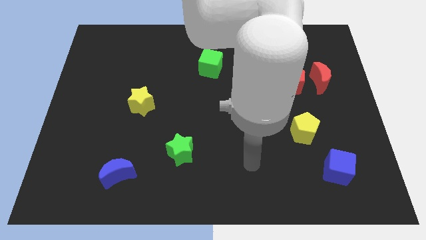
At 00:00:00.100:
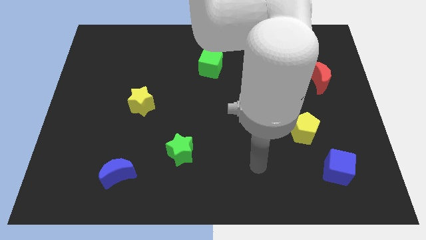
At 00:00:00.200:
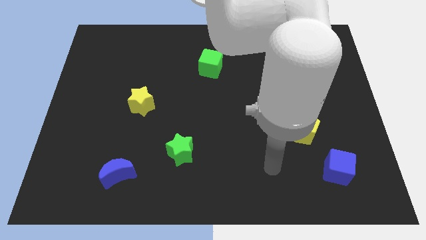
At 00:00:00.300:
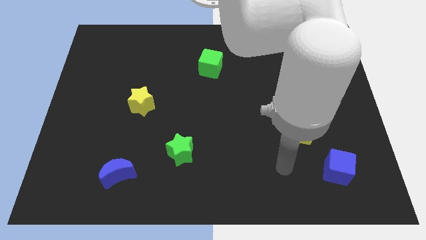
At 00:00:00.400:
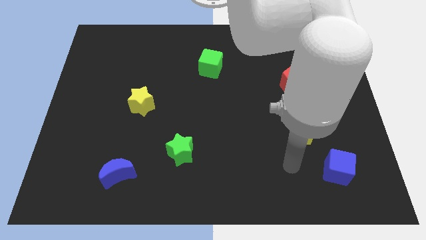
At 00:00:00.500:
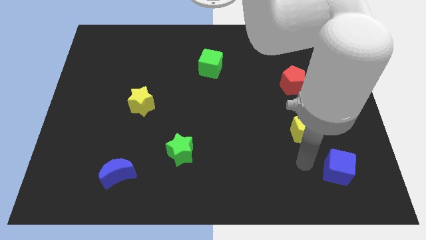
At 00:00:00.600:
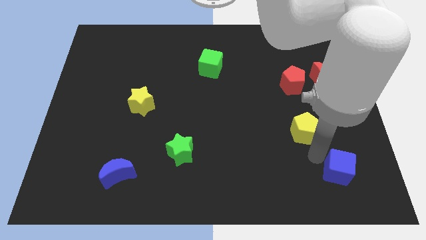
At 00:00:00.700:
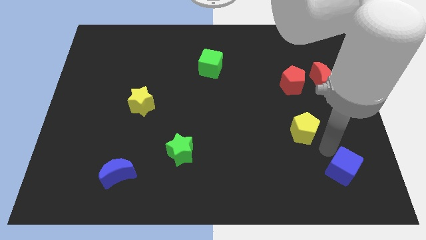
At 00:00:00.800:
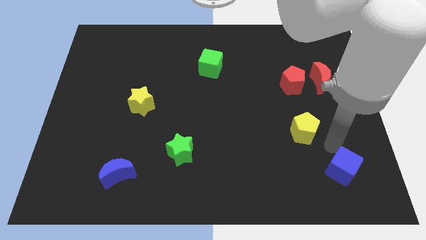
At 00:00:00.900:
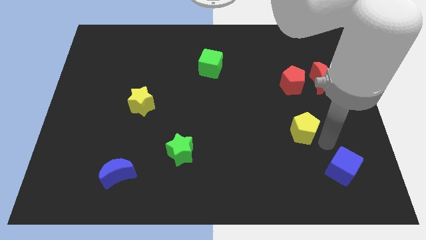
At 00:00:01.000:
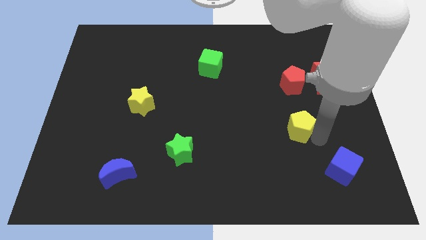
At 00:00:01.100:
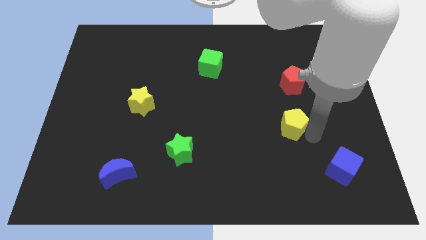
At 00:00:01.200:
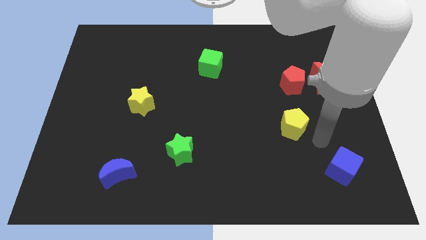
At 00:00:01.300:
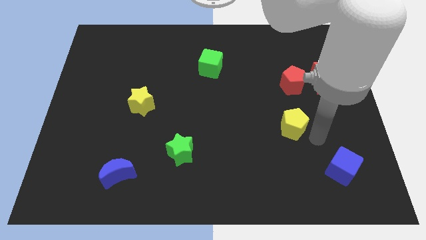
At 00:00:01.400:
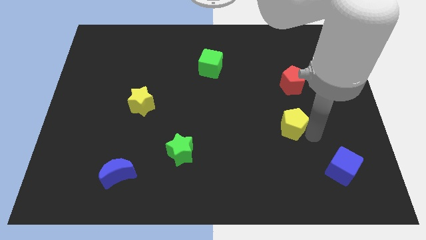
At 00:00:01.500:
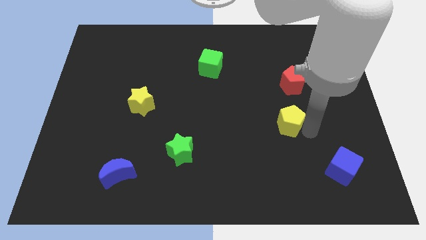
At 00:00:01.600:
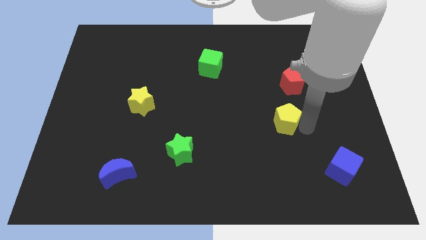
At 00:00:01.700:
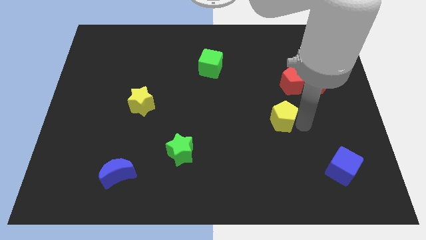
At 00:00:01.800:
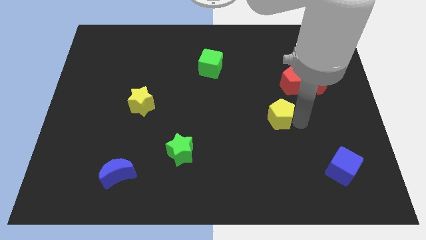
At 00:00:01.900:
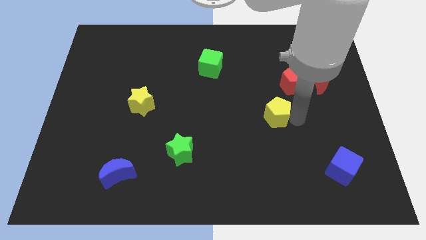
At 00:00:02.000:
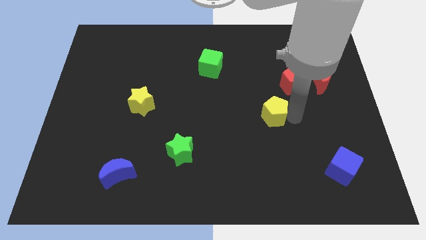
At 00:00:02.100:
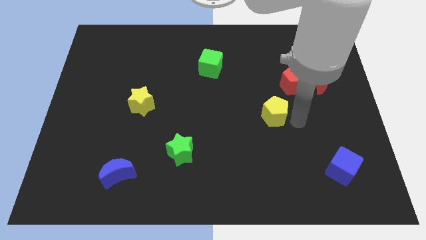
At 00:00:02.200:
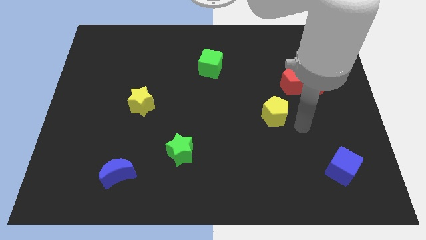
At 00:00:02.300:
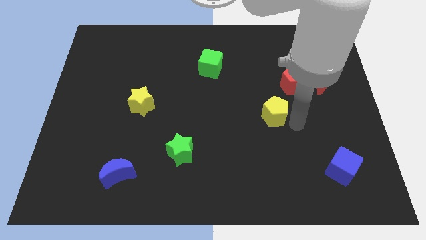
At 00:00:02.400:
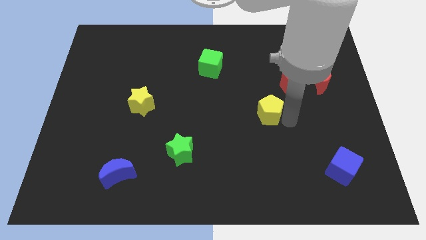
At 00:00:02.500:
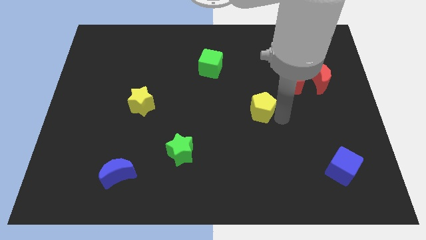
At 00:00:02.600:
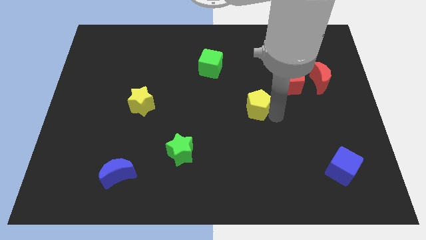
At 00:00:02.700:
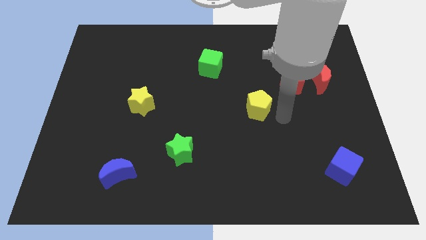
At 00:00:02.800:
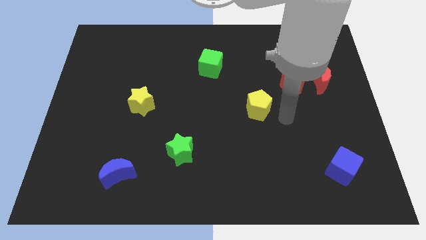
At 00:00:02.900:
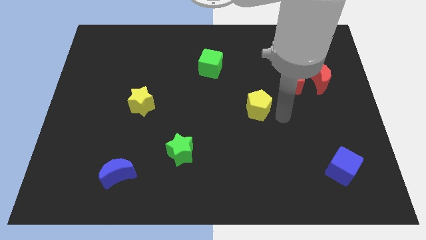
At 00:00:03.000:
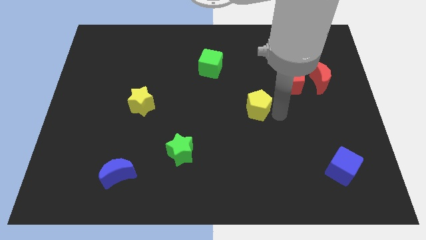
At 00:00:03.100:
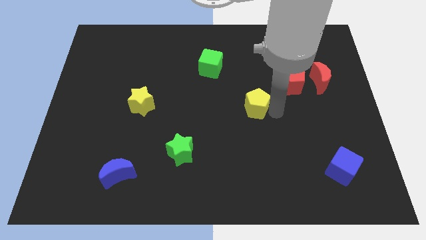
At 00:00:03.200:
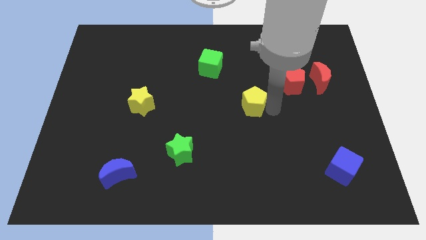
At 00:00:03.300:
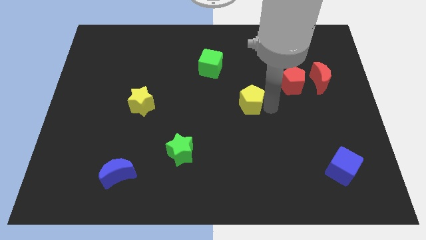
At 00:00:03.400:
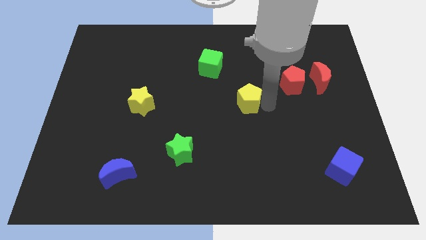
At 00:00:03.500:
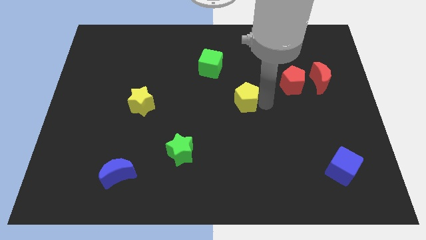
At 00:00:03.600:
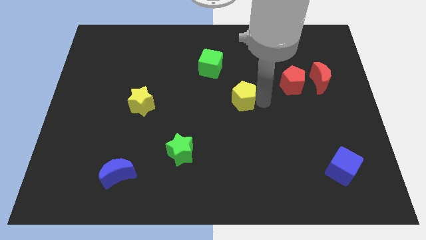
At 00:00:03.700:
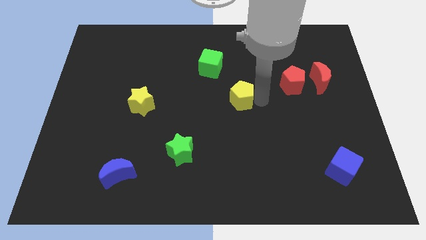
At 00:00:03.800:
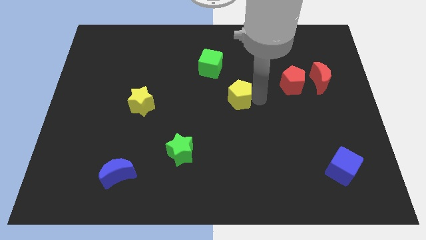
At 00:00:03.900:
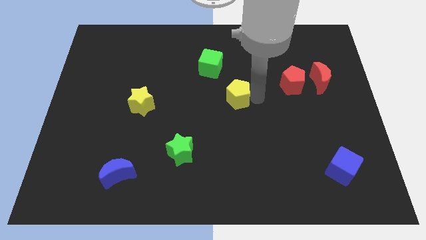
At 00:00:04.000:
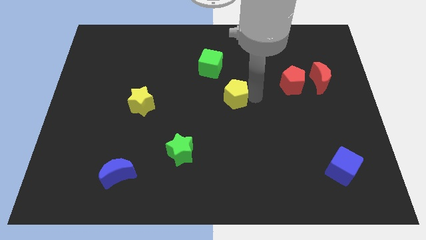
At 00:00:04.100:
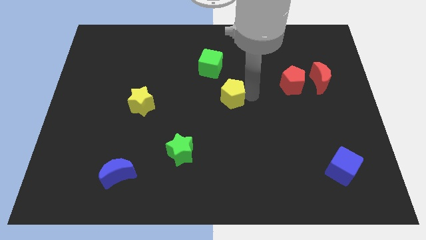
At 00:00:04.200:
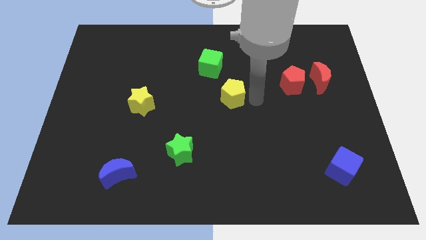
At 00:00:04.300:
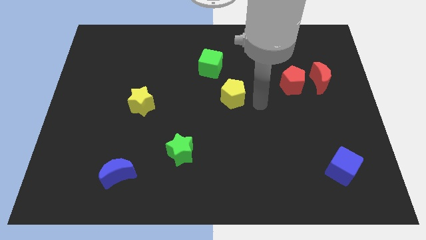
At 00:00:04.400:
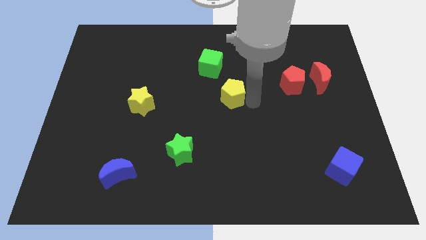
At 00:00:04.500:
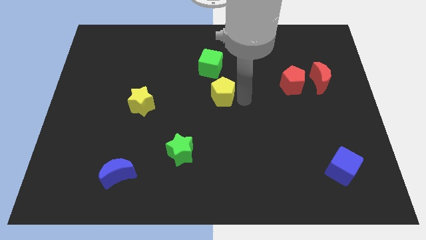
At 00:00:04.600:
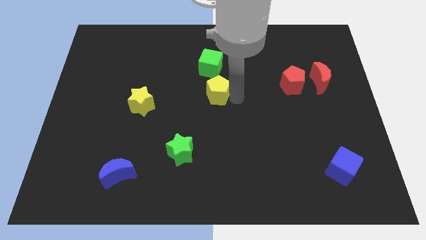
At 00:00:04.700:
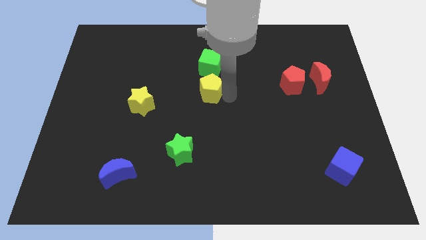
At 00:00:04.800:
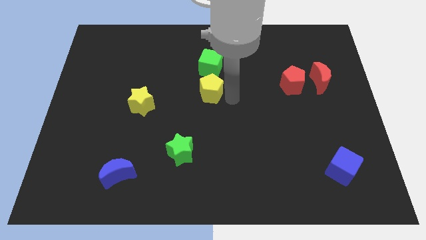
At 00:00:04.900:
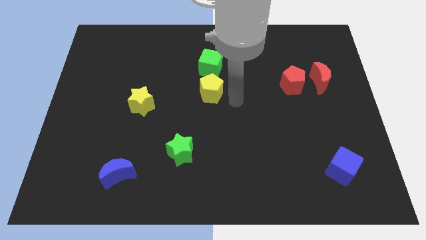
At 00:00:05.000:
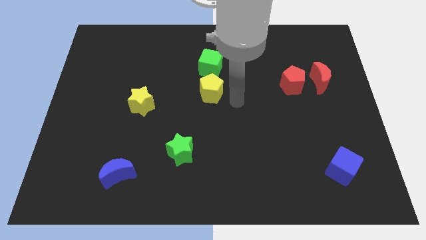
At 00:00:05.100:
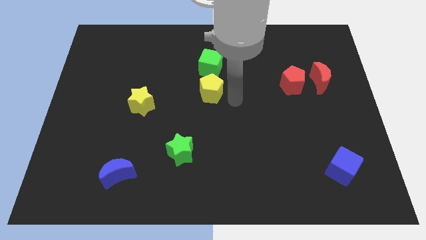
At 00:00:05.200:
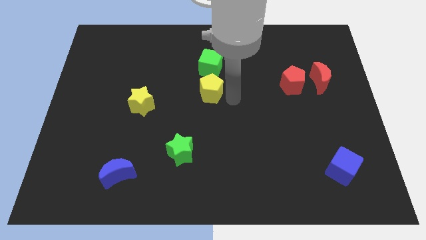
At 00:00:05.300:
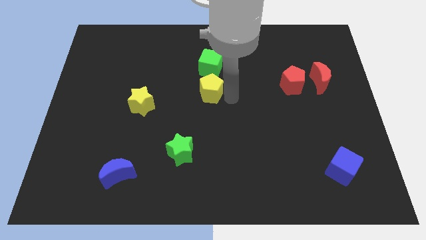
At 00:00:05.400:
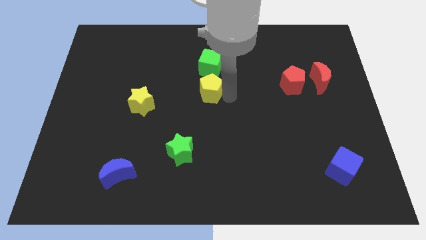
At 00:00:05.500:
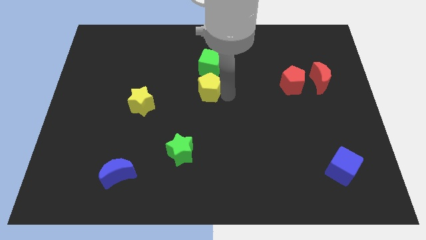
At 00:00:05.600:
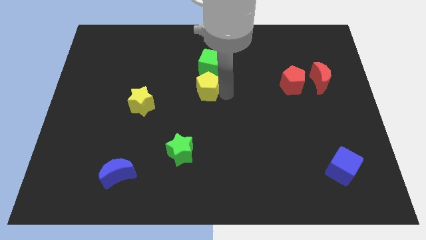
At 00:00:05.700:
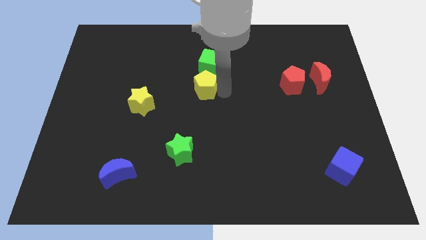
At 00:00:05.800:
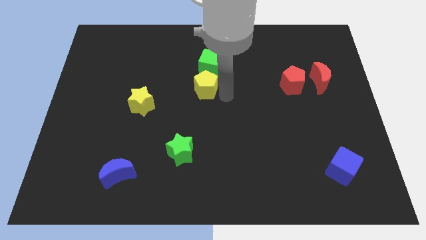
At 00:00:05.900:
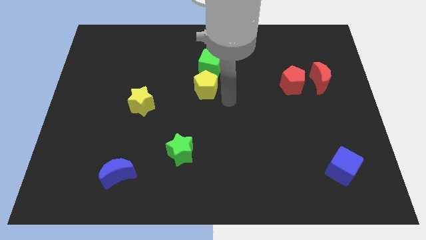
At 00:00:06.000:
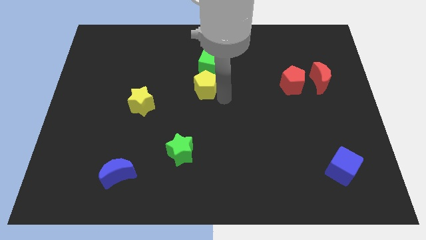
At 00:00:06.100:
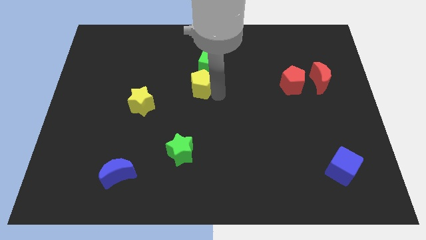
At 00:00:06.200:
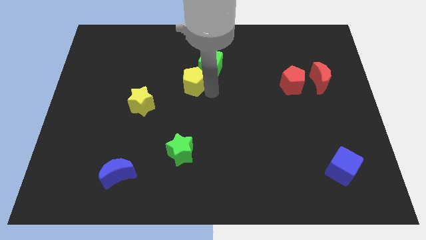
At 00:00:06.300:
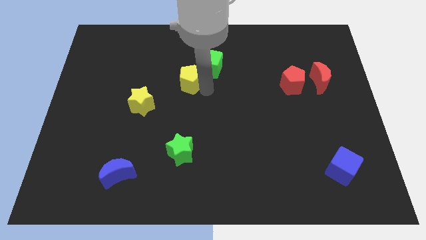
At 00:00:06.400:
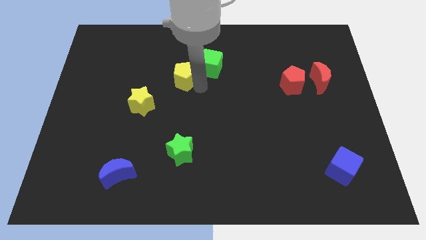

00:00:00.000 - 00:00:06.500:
push the yellow pentagon to the left side of the green cube
